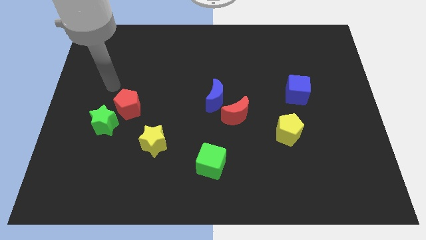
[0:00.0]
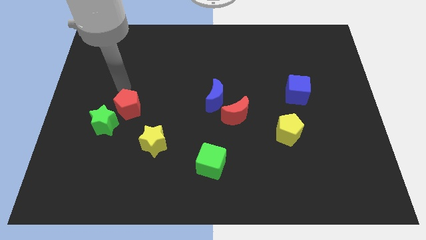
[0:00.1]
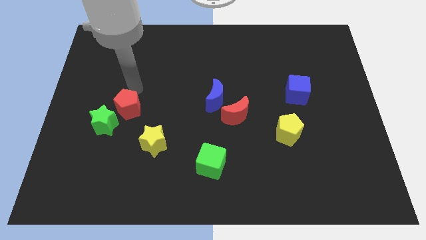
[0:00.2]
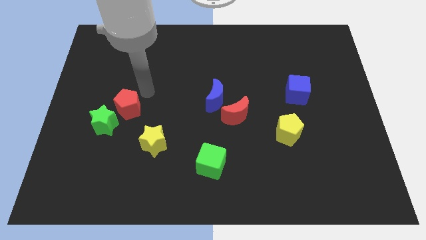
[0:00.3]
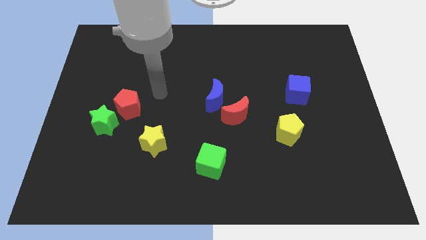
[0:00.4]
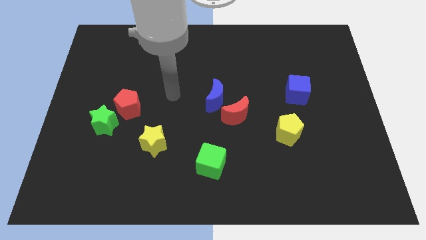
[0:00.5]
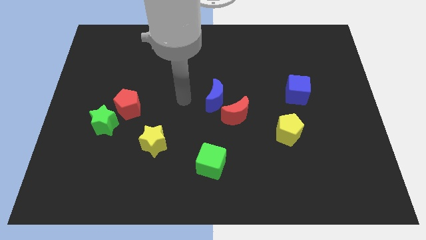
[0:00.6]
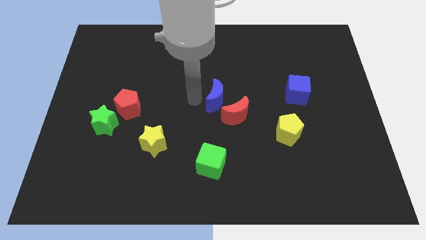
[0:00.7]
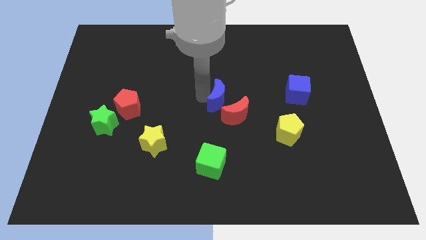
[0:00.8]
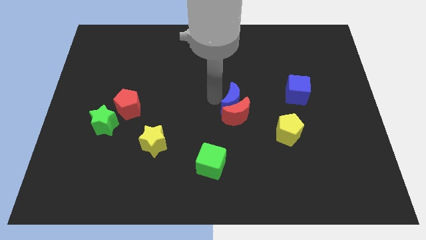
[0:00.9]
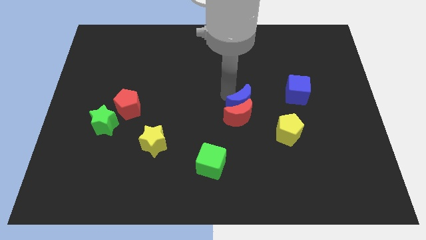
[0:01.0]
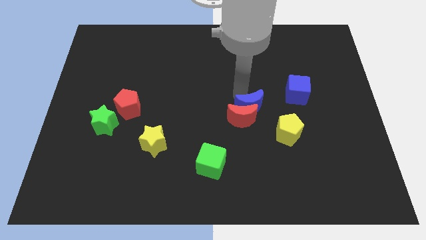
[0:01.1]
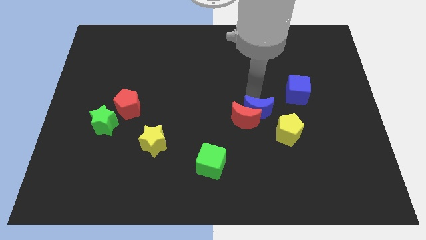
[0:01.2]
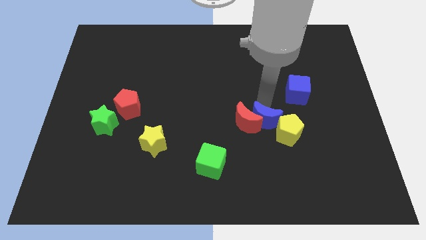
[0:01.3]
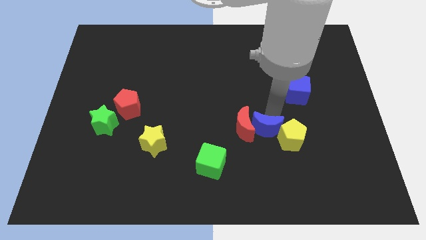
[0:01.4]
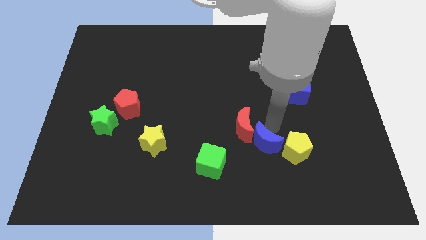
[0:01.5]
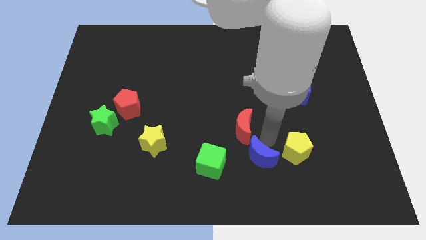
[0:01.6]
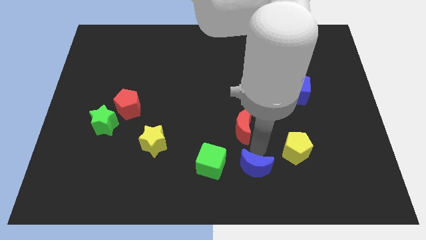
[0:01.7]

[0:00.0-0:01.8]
pull the red moon apart from the blue moon

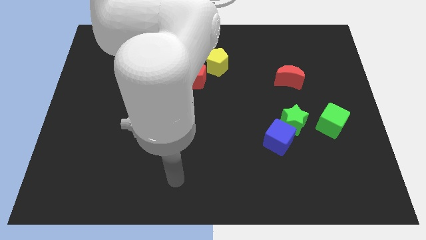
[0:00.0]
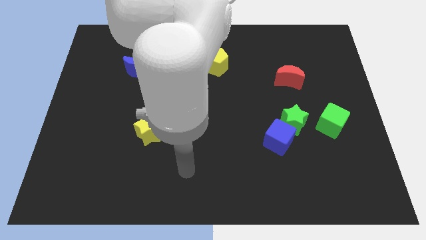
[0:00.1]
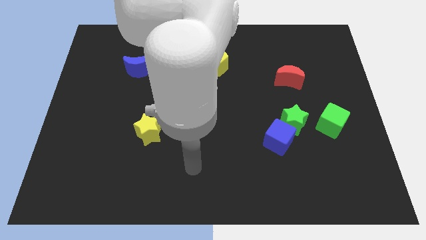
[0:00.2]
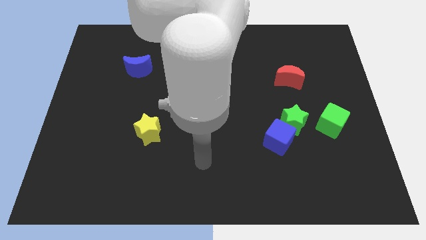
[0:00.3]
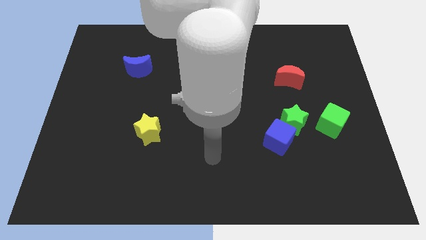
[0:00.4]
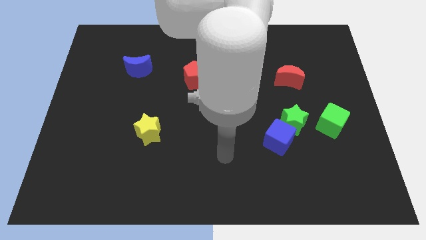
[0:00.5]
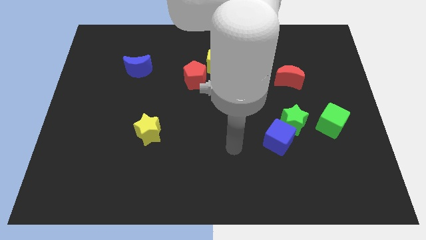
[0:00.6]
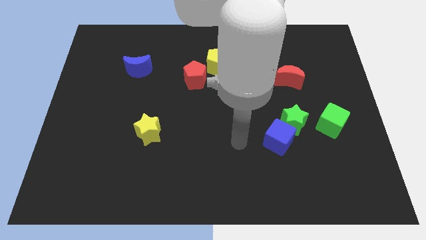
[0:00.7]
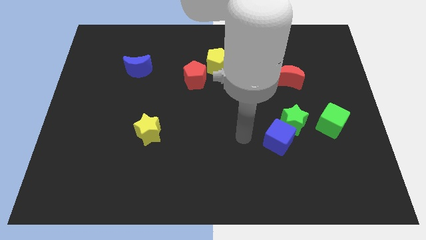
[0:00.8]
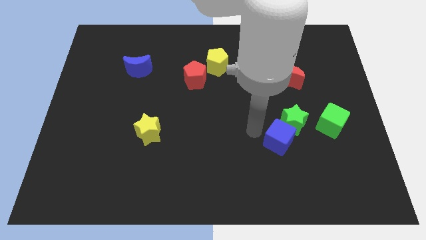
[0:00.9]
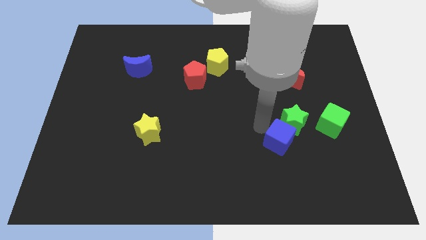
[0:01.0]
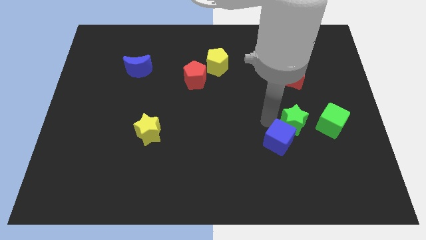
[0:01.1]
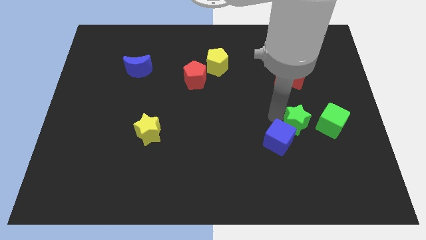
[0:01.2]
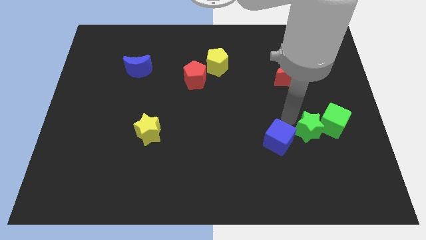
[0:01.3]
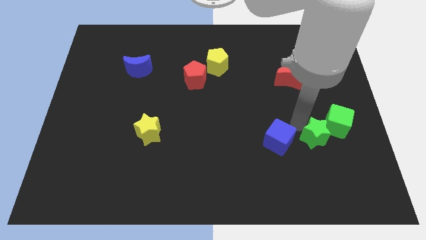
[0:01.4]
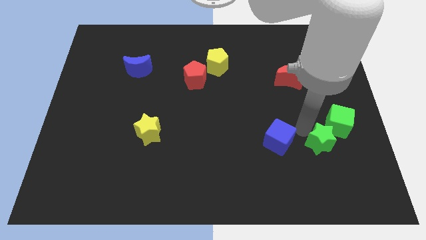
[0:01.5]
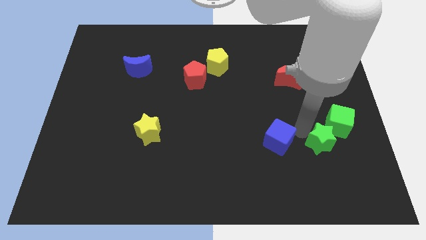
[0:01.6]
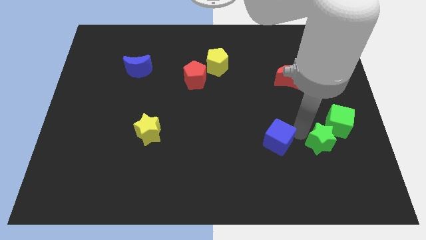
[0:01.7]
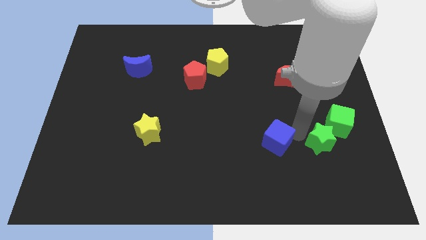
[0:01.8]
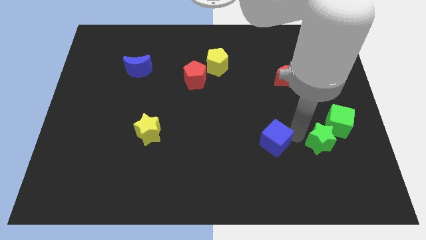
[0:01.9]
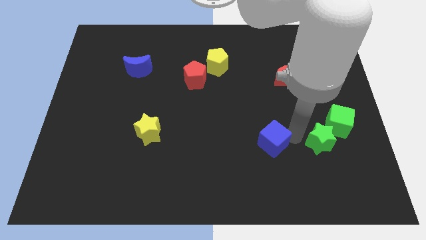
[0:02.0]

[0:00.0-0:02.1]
move the blue cube away from the green star

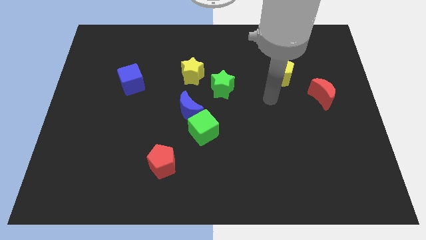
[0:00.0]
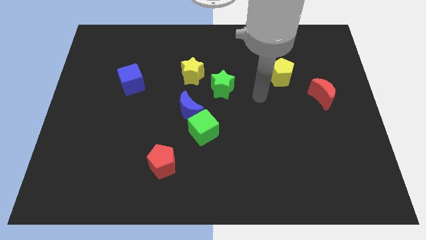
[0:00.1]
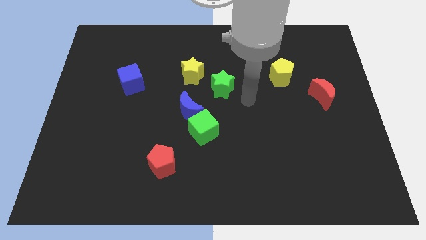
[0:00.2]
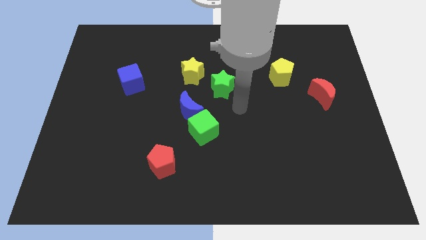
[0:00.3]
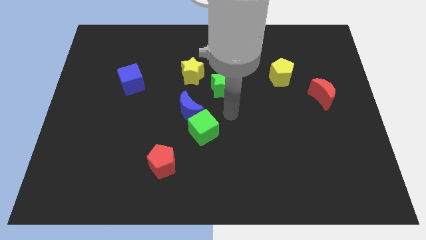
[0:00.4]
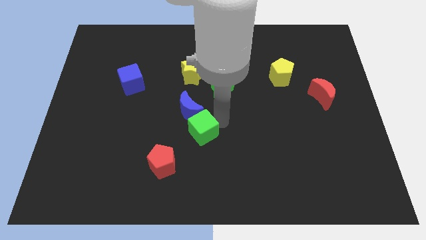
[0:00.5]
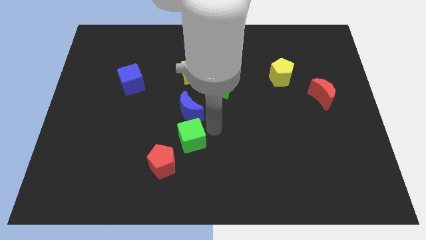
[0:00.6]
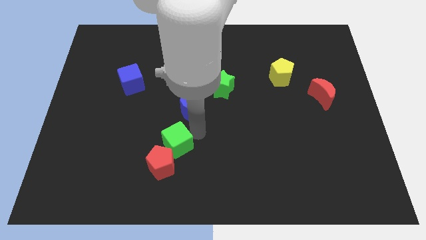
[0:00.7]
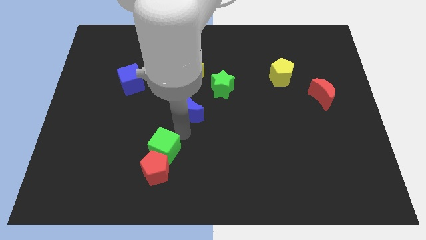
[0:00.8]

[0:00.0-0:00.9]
separate the blue moon from the green cube

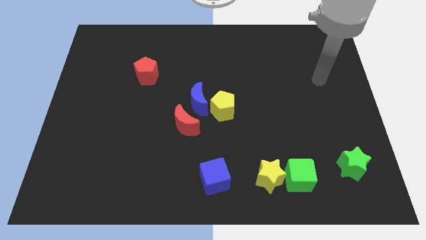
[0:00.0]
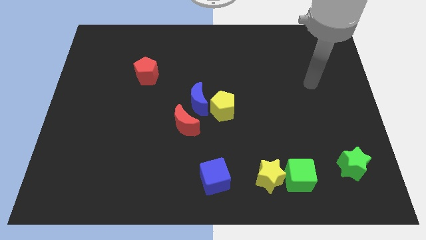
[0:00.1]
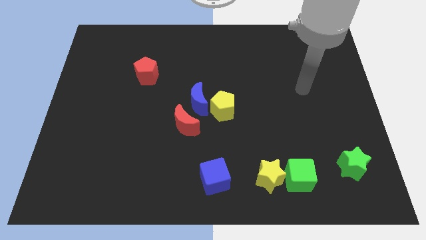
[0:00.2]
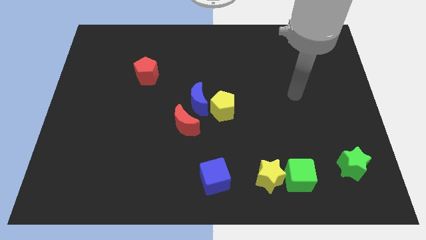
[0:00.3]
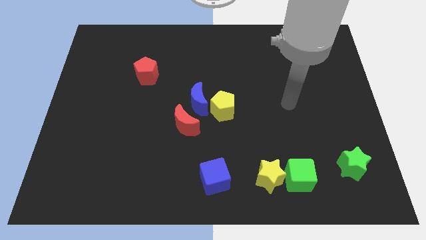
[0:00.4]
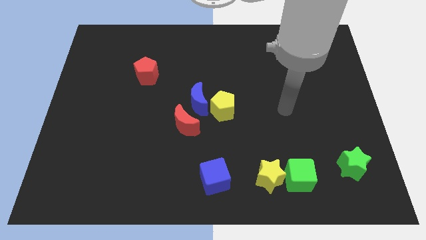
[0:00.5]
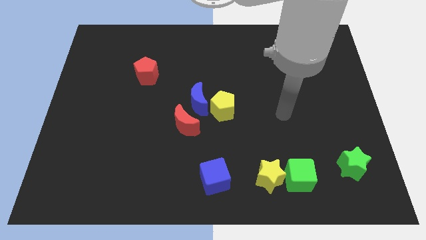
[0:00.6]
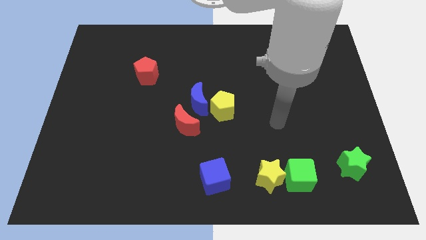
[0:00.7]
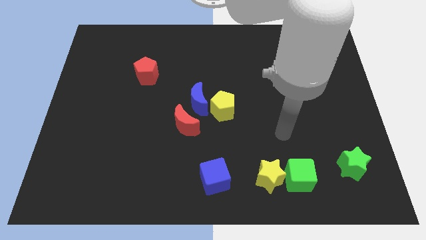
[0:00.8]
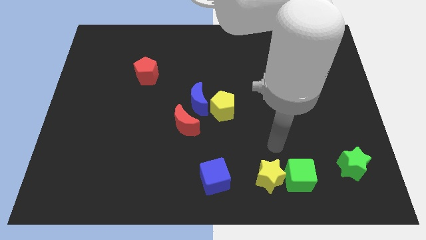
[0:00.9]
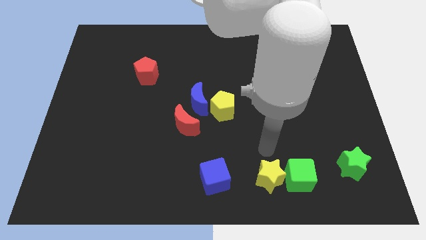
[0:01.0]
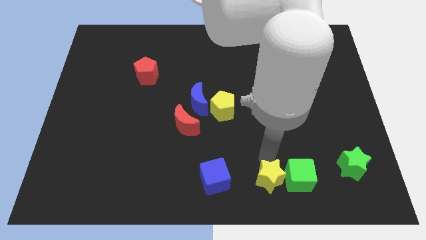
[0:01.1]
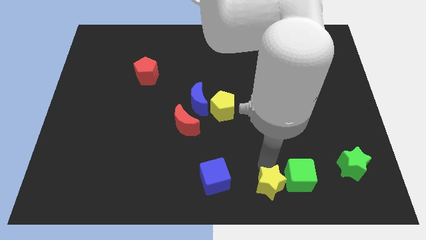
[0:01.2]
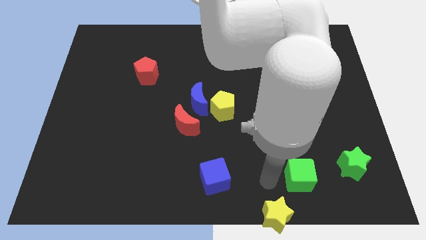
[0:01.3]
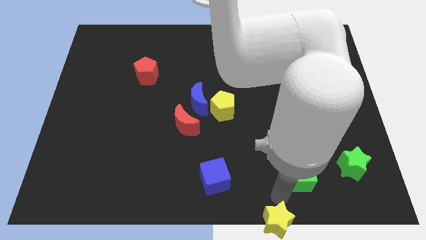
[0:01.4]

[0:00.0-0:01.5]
separate the green cube from the yellow star

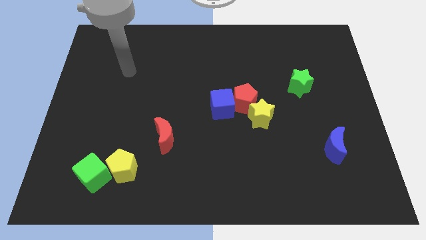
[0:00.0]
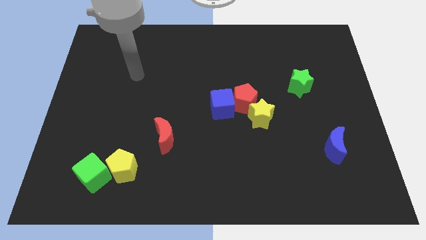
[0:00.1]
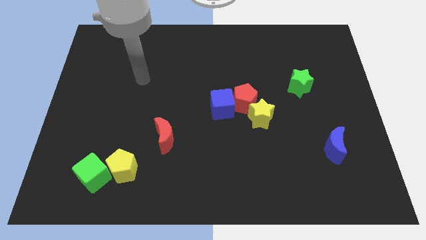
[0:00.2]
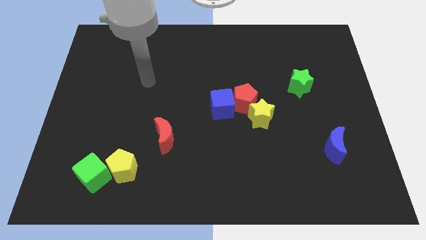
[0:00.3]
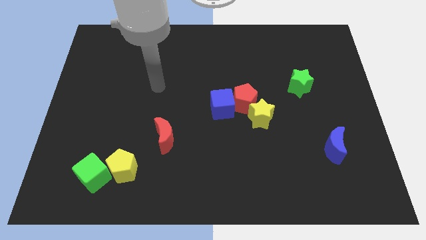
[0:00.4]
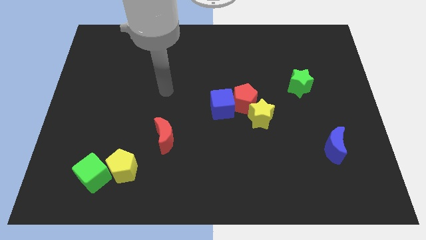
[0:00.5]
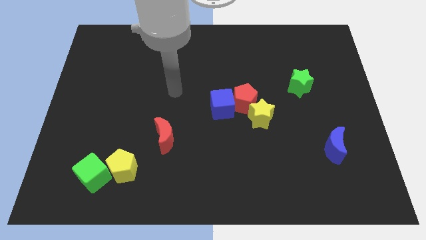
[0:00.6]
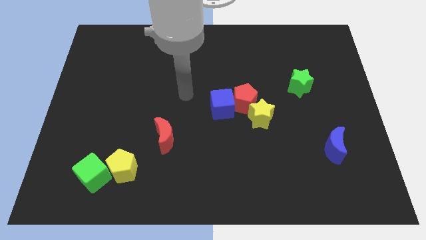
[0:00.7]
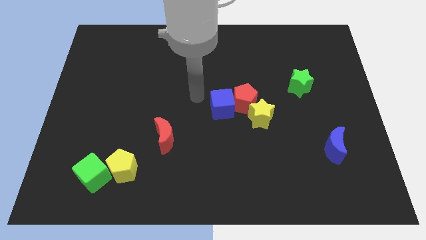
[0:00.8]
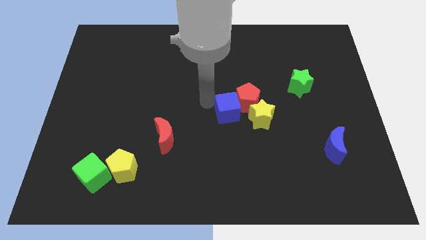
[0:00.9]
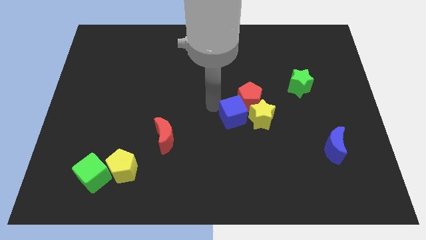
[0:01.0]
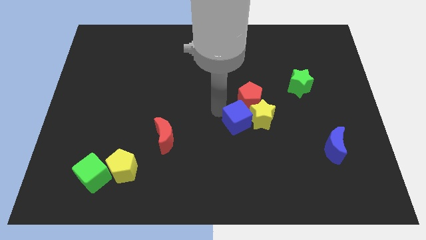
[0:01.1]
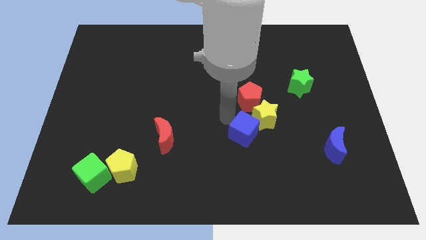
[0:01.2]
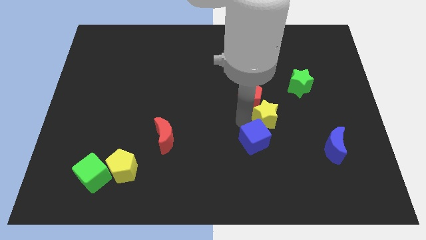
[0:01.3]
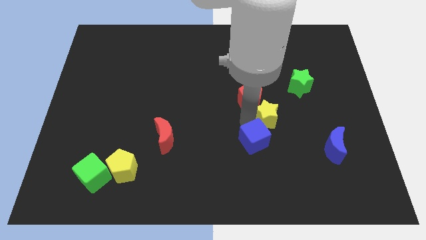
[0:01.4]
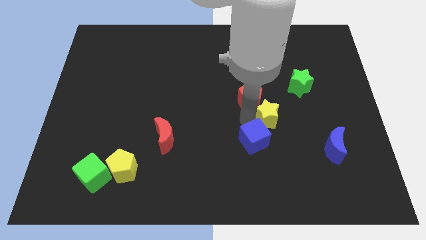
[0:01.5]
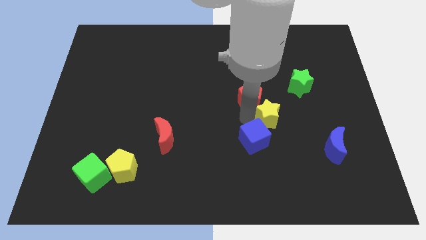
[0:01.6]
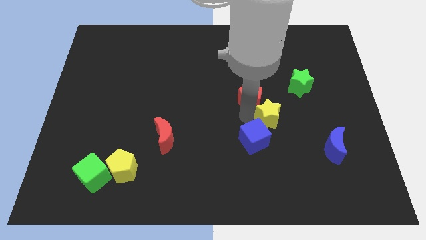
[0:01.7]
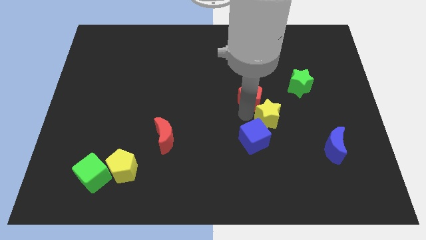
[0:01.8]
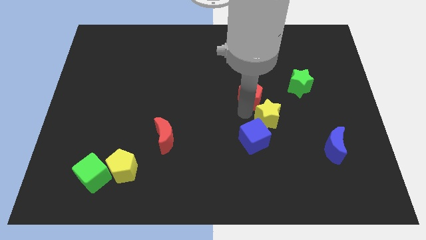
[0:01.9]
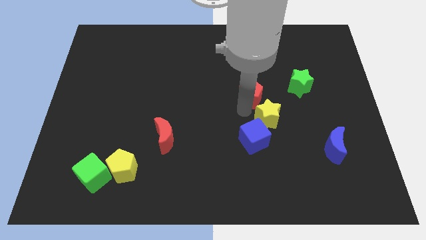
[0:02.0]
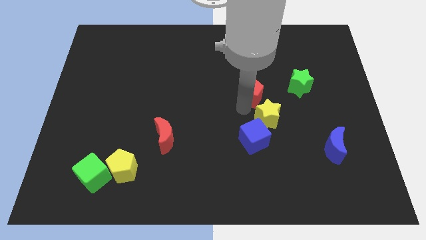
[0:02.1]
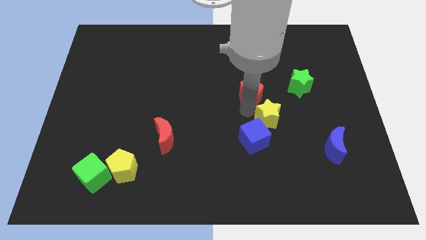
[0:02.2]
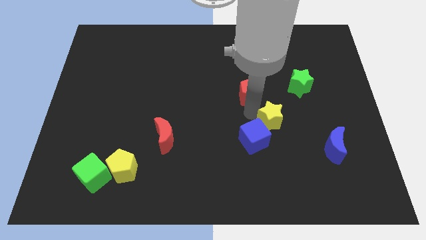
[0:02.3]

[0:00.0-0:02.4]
pull the red pentagon apart from the blue cube and yellow star

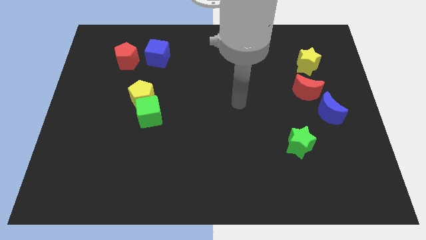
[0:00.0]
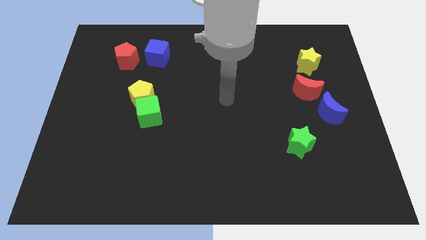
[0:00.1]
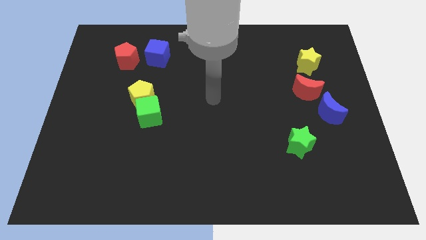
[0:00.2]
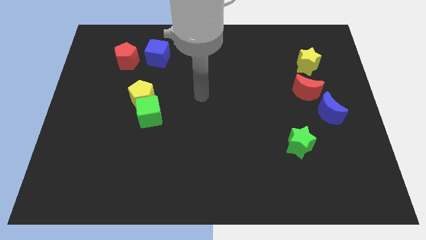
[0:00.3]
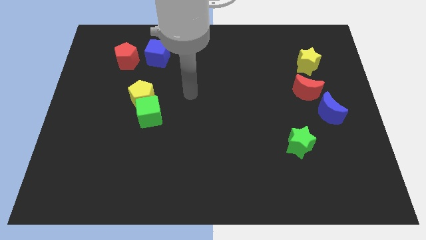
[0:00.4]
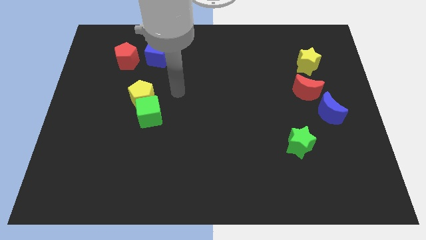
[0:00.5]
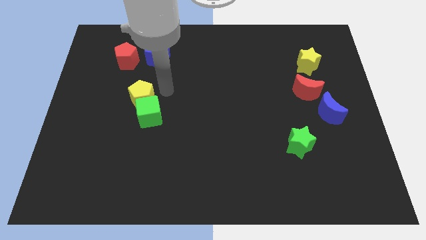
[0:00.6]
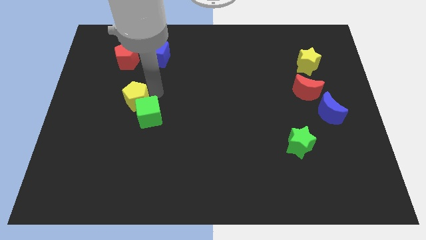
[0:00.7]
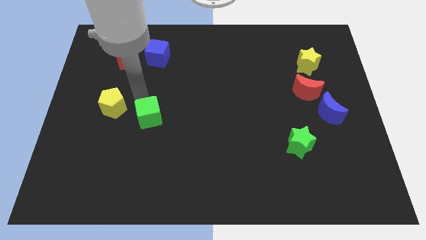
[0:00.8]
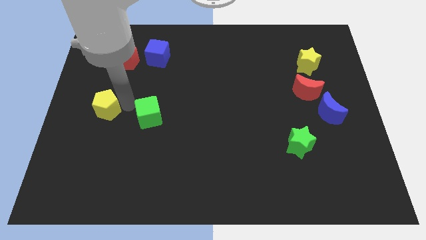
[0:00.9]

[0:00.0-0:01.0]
separate the green cube from the yellow pentagon
